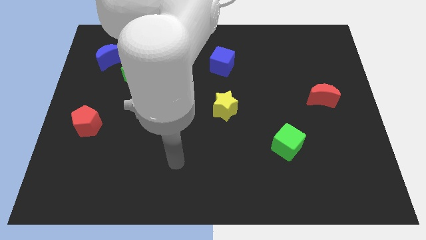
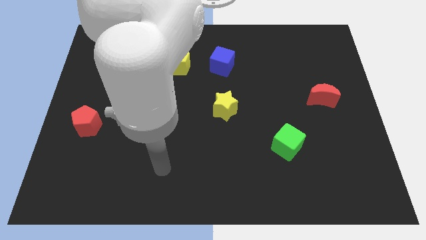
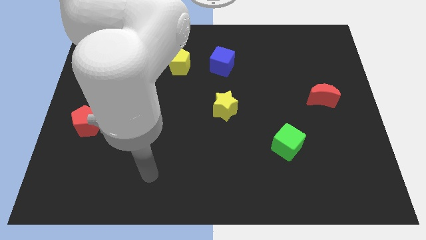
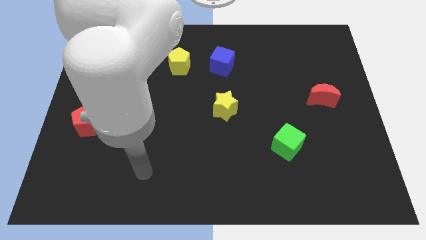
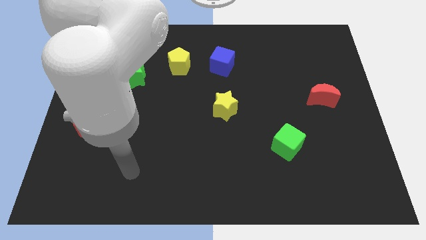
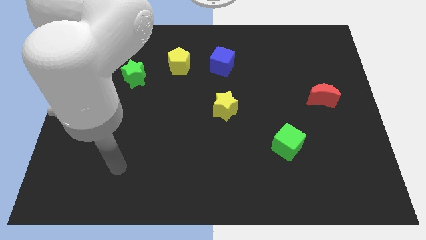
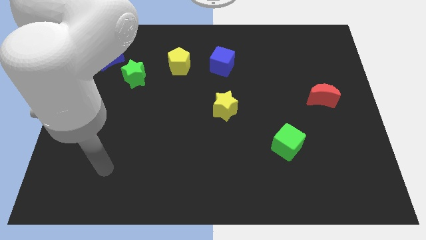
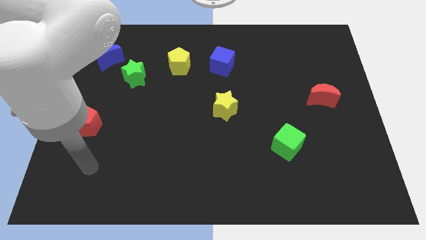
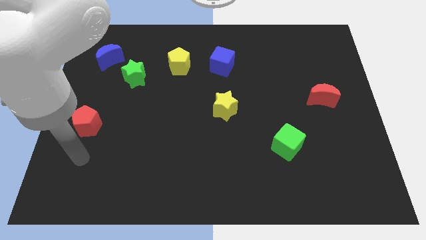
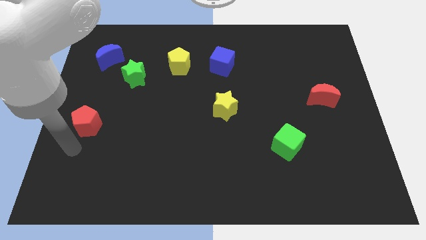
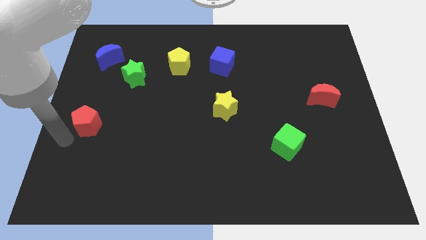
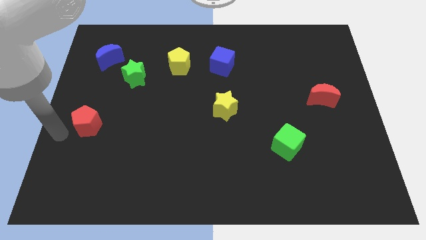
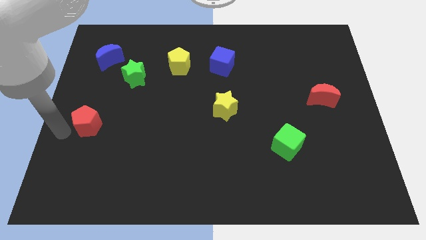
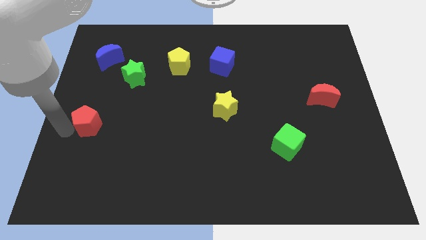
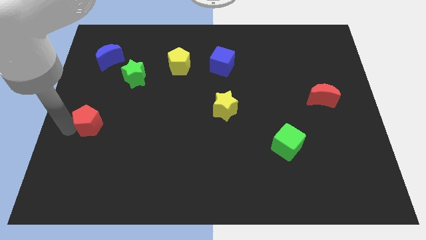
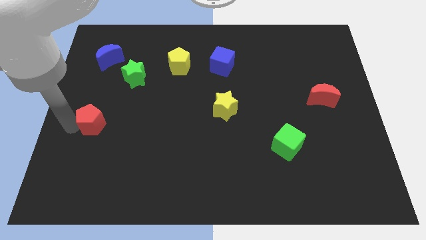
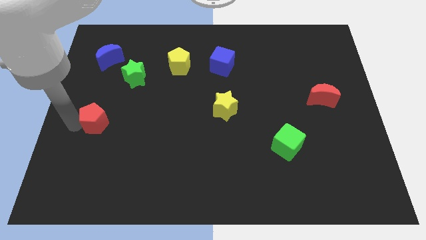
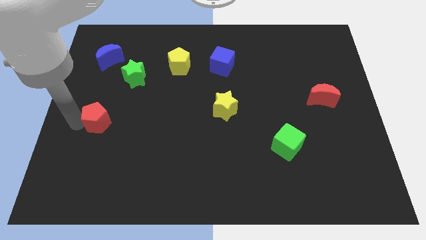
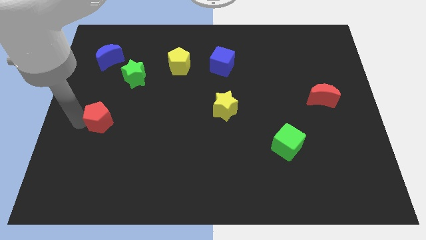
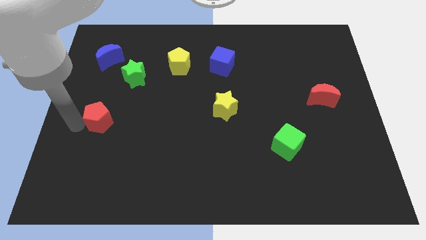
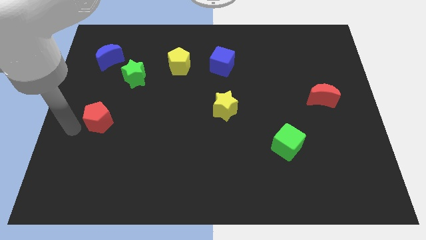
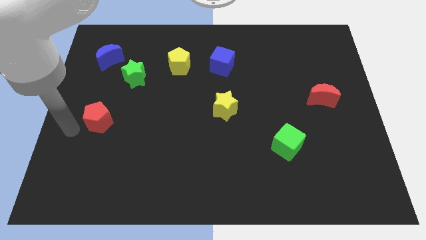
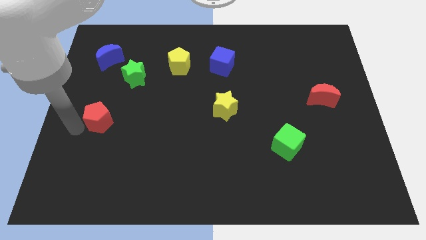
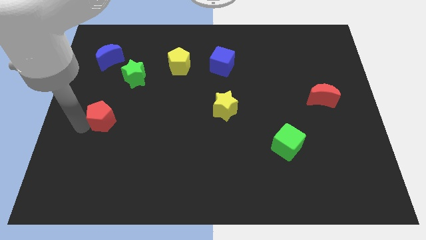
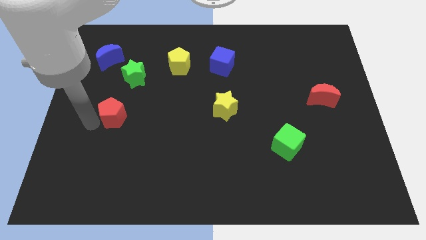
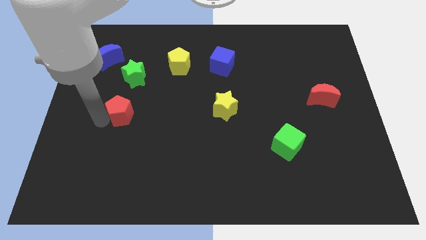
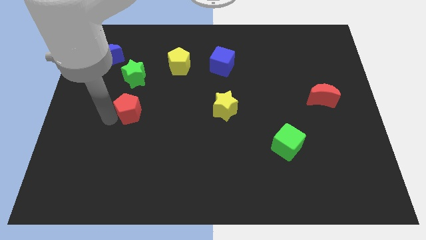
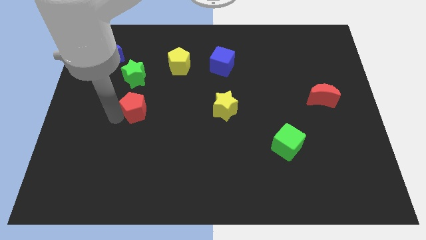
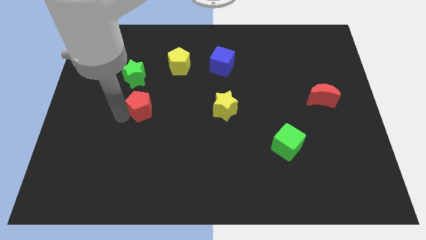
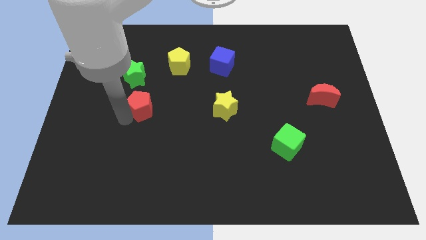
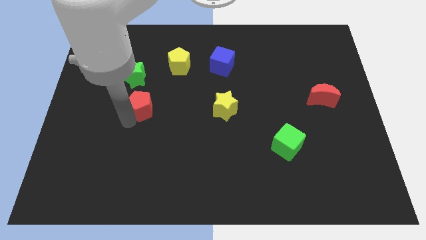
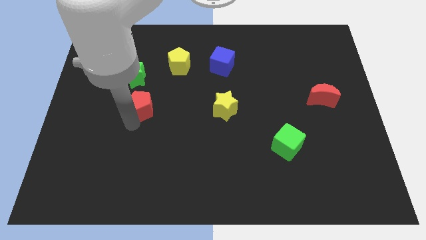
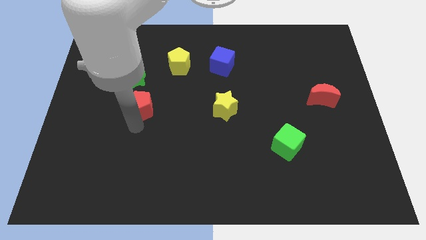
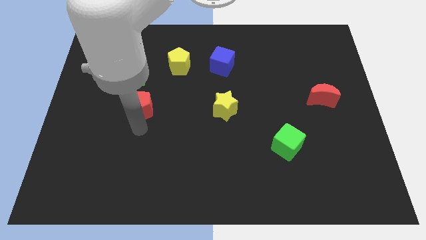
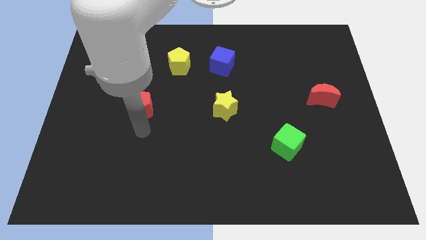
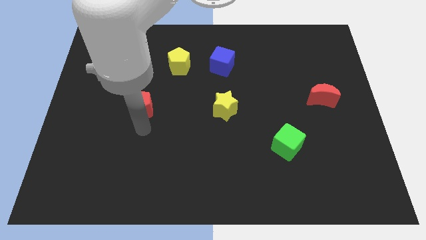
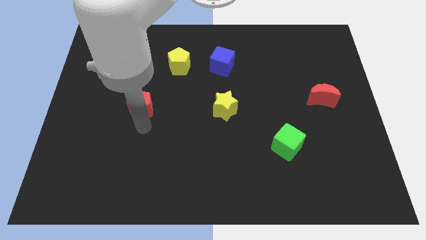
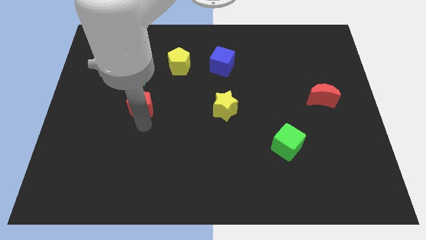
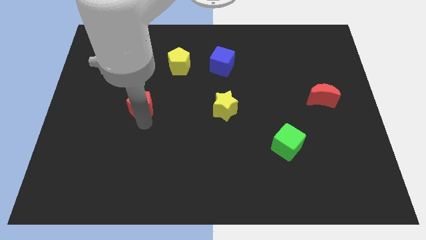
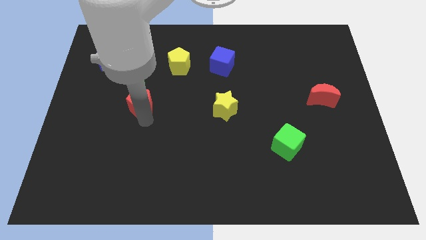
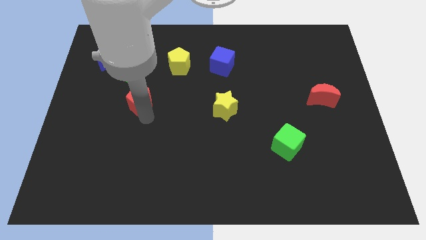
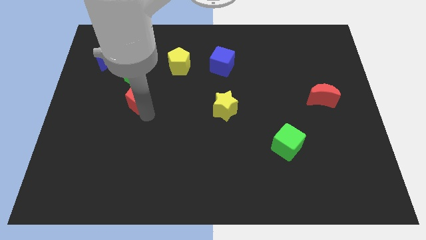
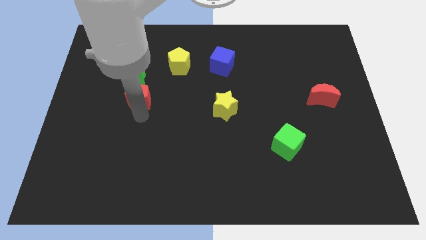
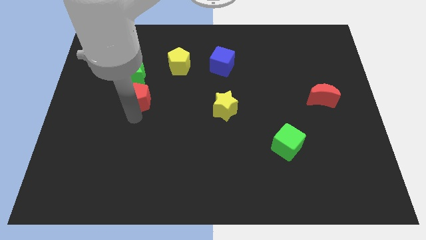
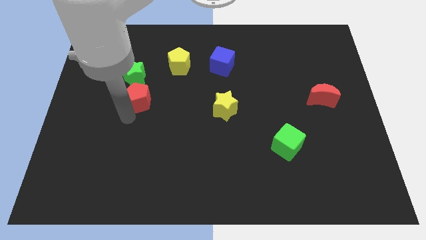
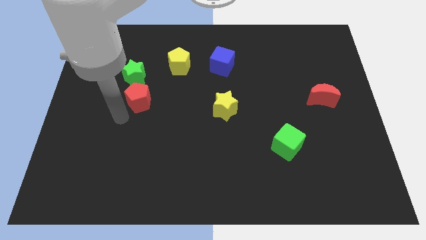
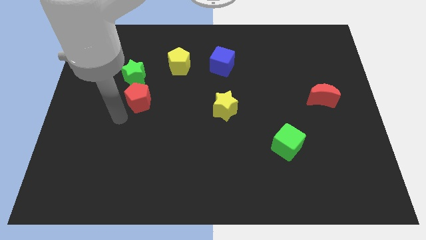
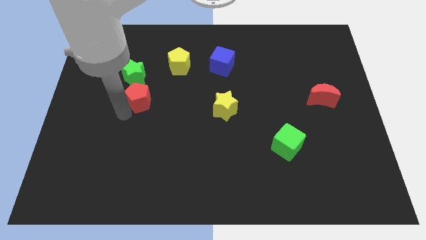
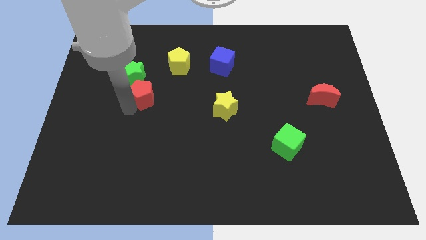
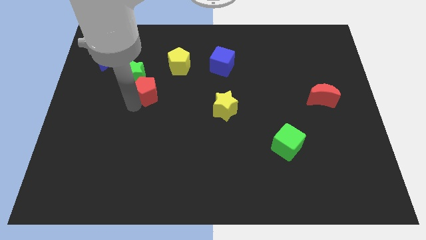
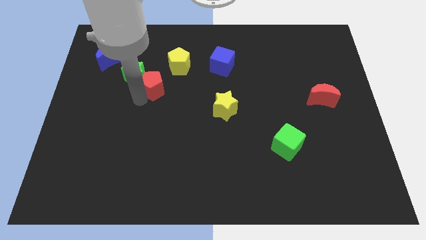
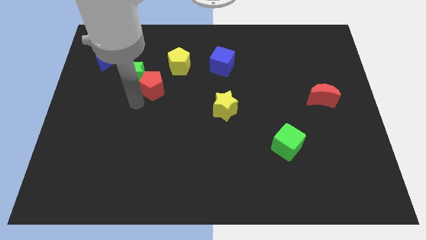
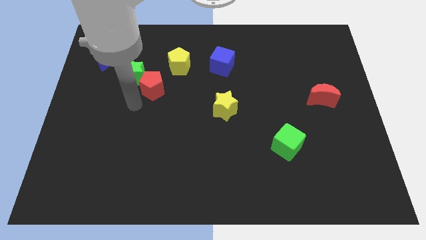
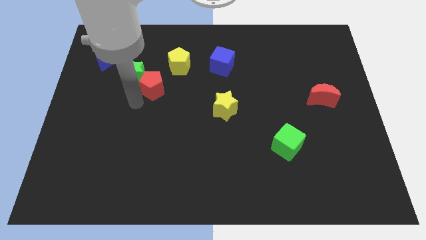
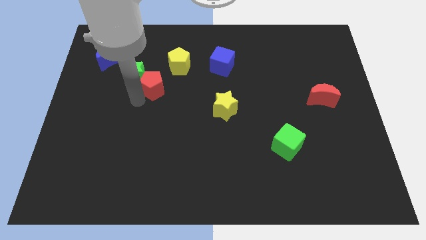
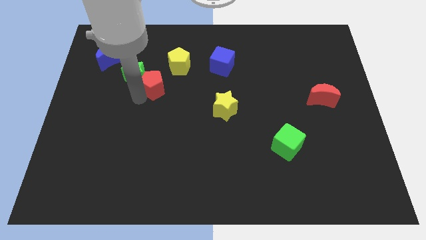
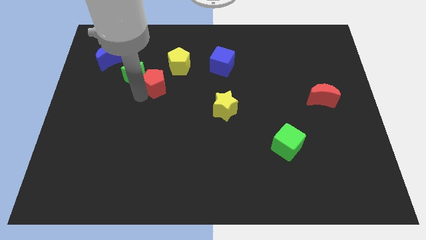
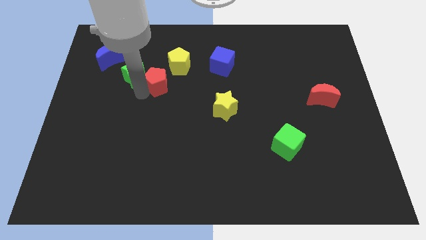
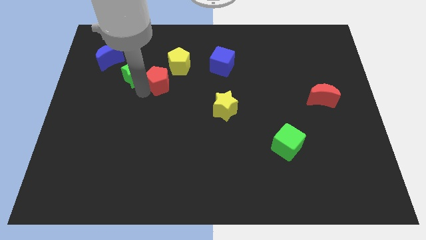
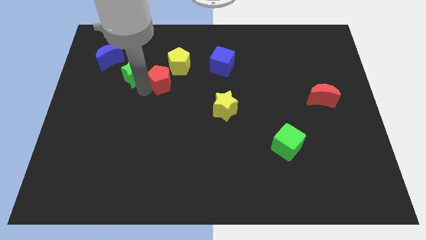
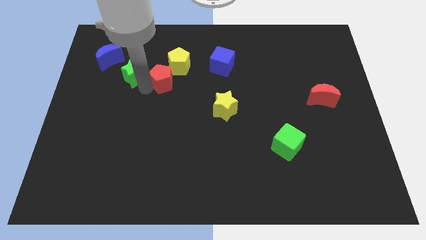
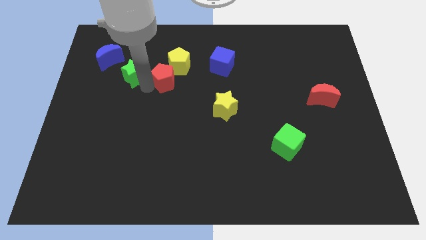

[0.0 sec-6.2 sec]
push the red pentagon towards the yellow pentagon

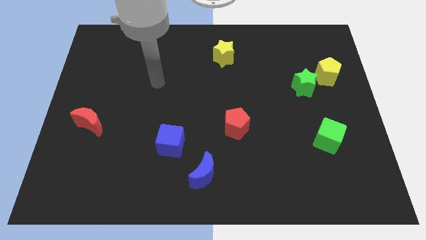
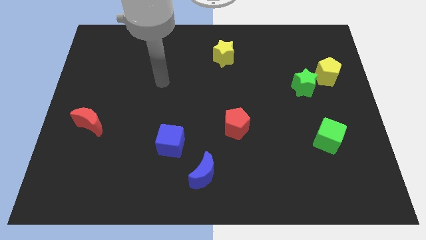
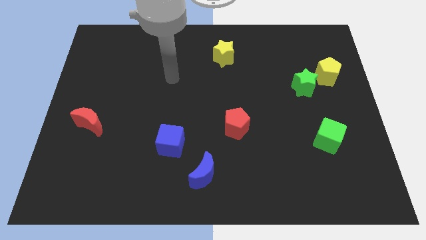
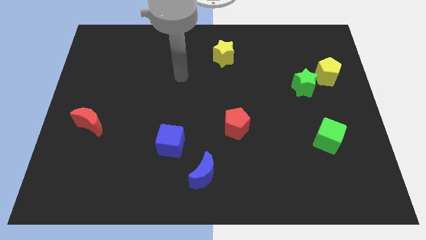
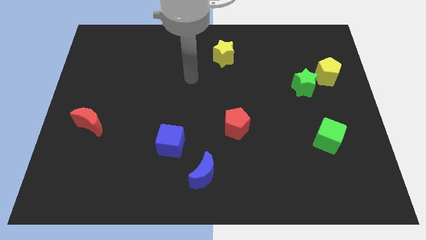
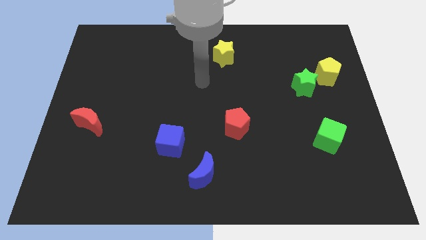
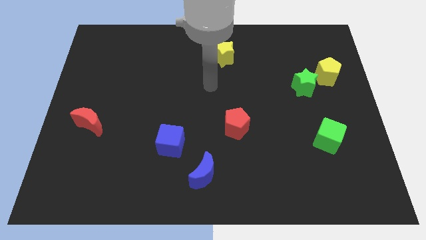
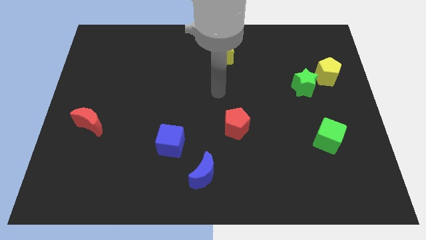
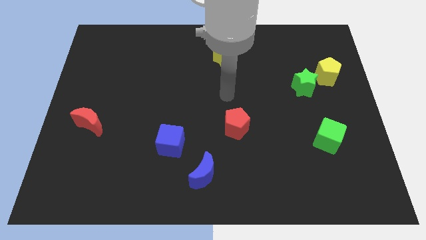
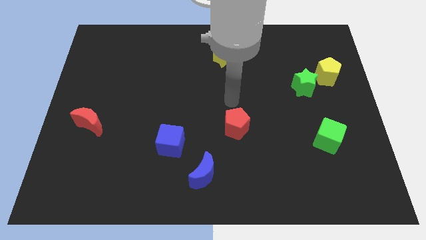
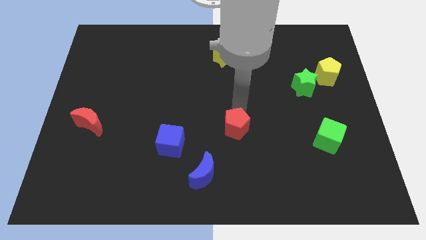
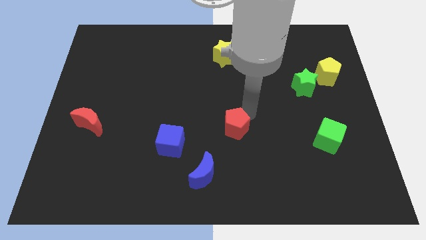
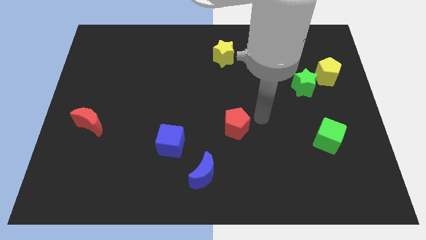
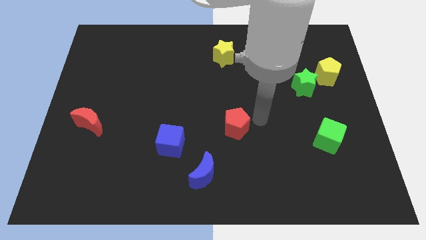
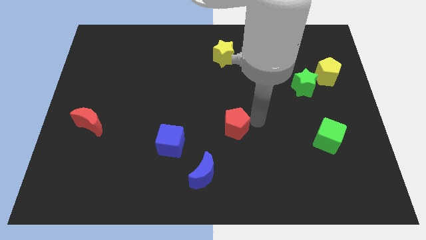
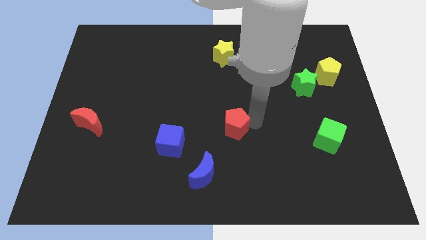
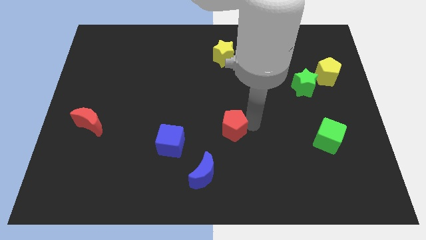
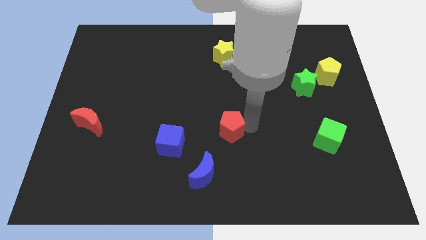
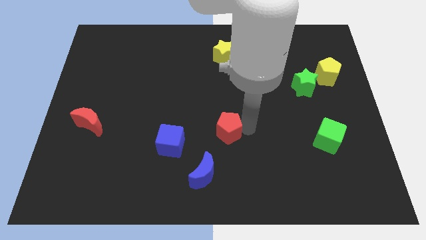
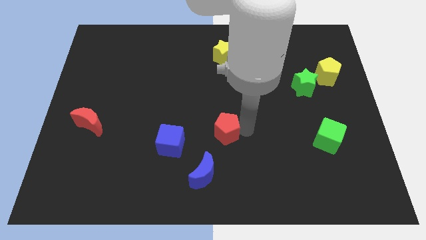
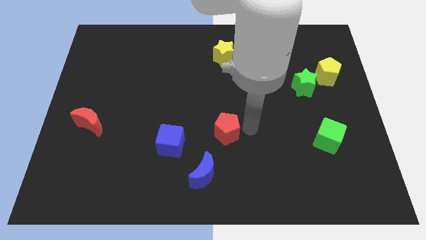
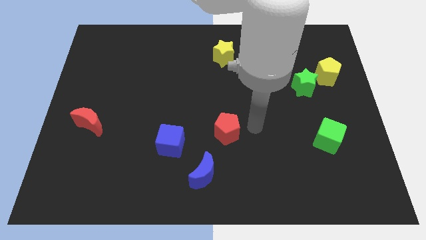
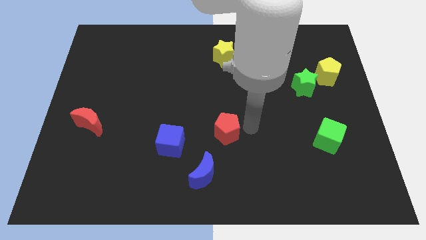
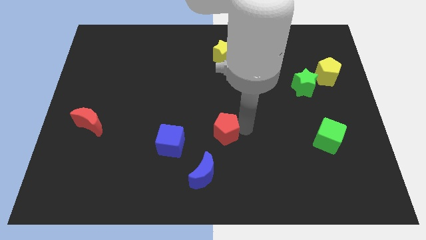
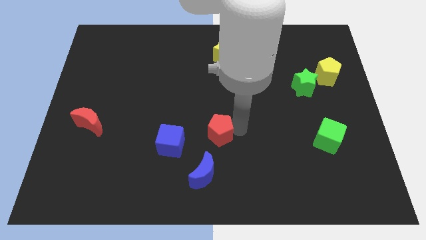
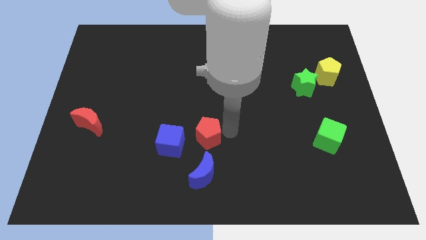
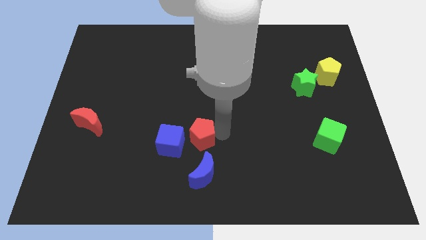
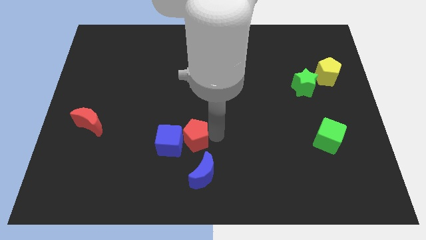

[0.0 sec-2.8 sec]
move the red pentagon next to the blue cube
